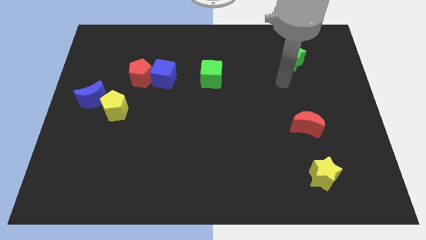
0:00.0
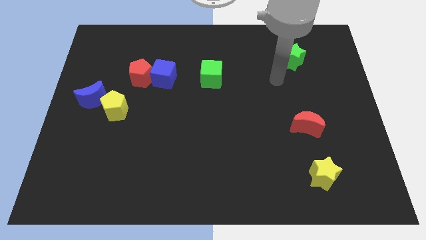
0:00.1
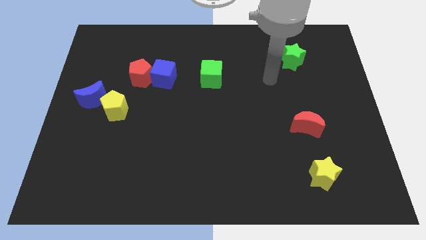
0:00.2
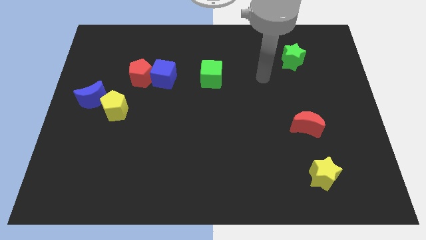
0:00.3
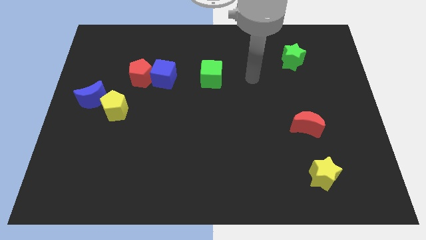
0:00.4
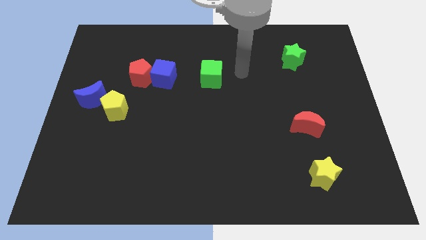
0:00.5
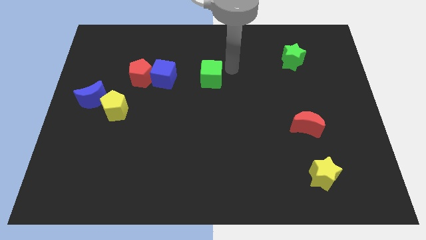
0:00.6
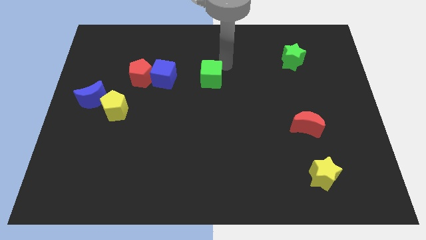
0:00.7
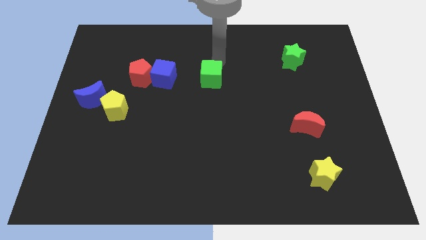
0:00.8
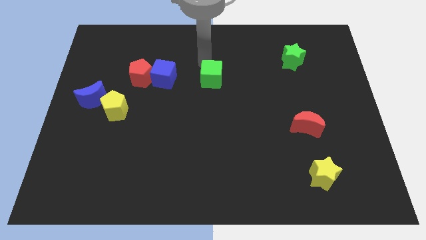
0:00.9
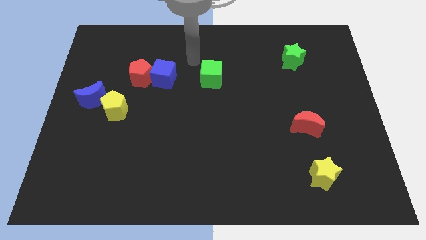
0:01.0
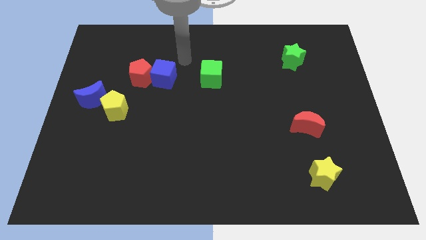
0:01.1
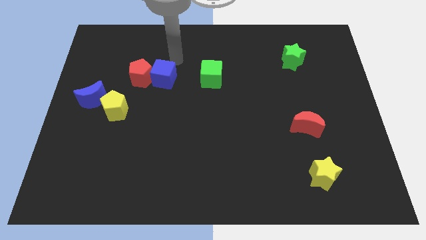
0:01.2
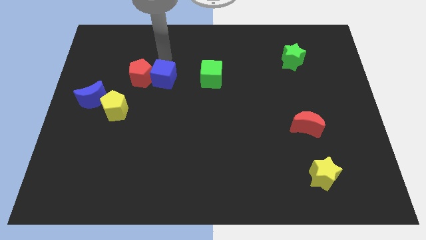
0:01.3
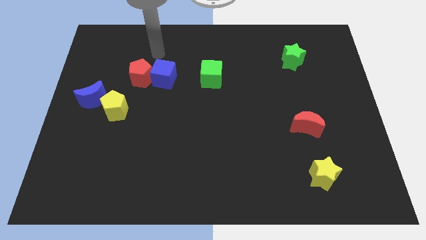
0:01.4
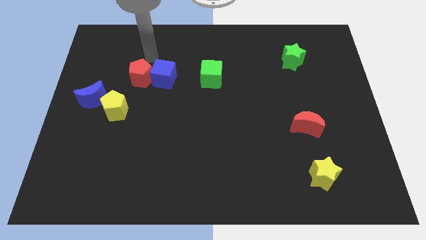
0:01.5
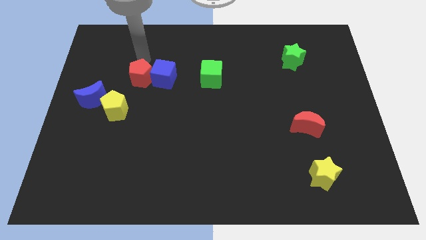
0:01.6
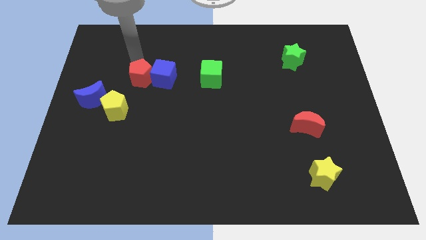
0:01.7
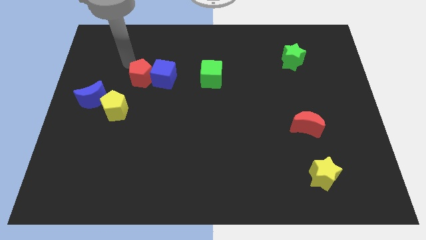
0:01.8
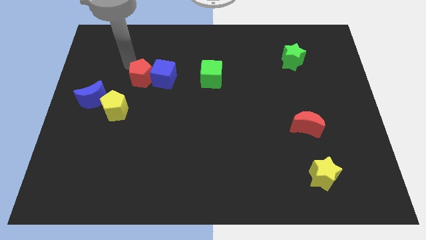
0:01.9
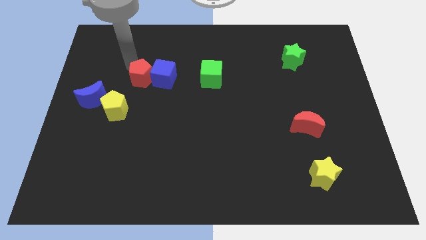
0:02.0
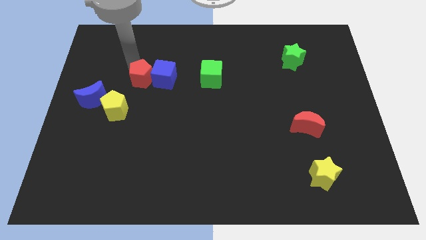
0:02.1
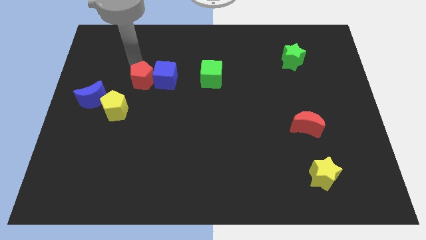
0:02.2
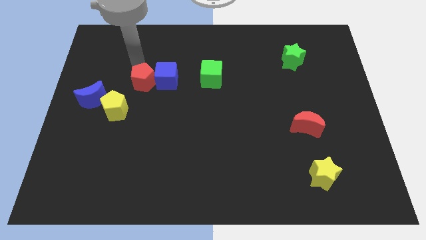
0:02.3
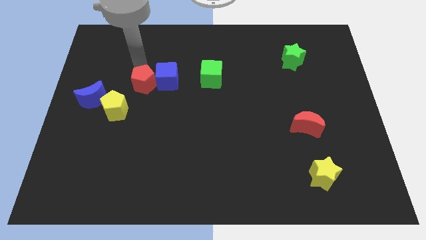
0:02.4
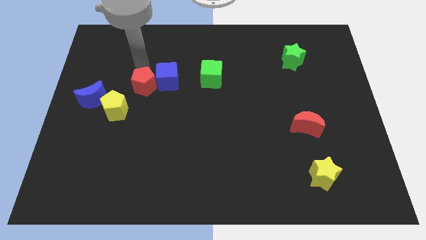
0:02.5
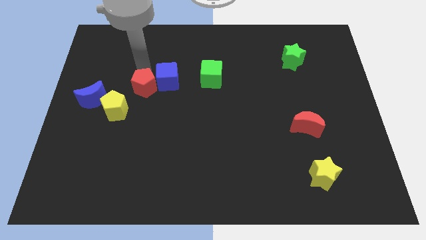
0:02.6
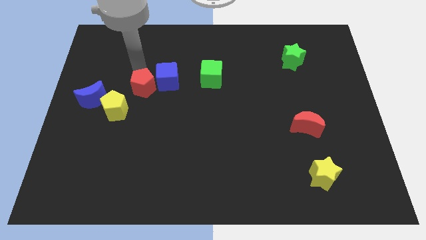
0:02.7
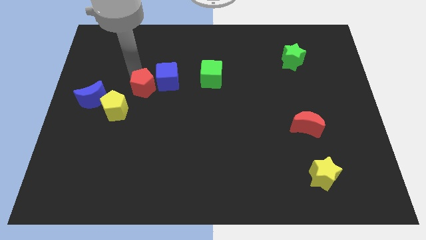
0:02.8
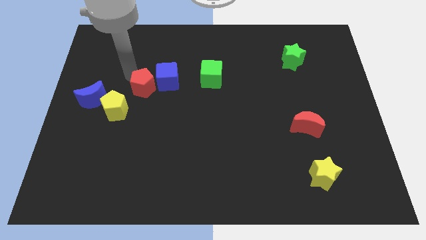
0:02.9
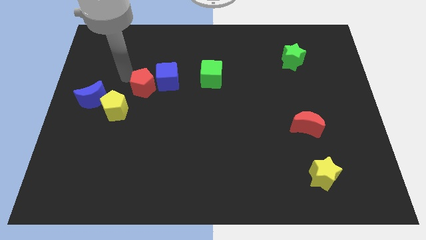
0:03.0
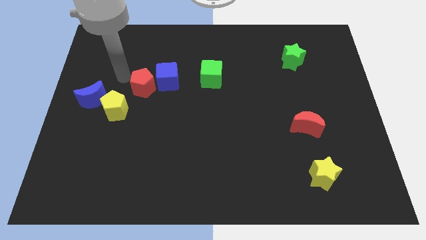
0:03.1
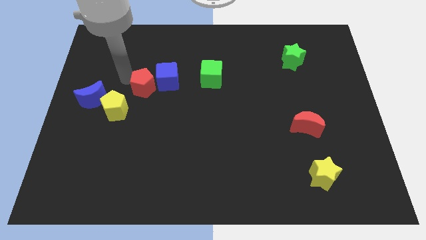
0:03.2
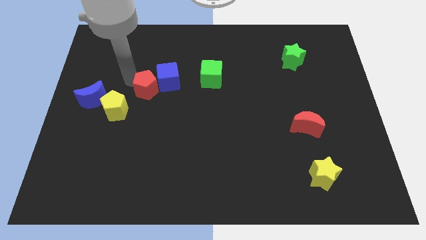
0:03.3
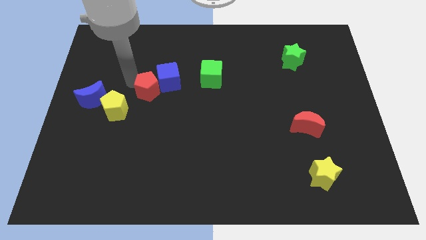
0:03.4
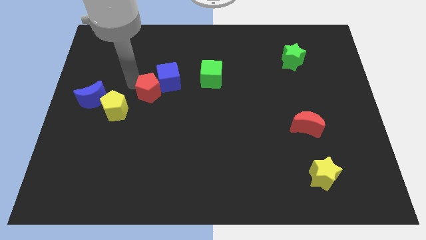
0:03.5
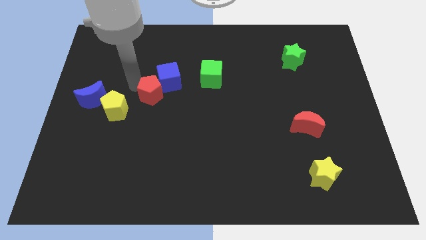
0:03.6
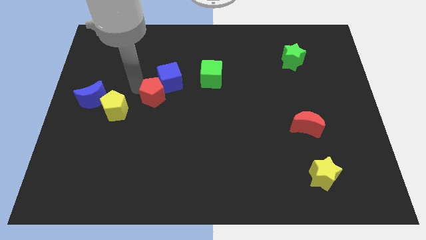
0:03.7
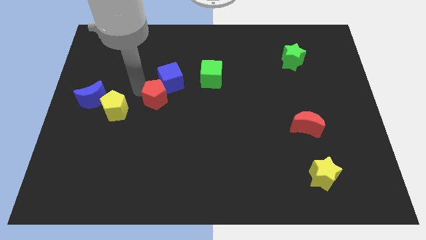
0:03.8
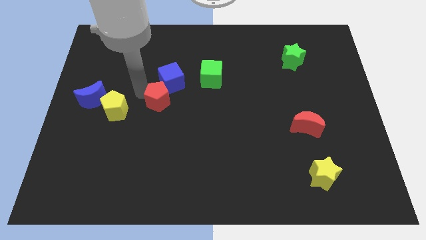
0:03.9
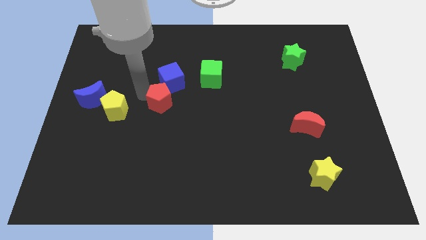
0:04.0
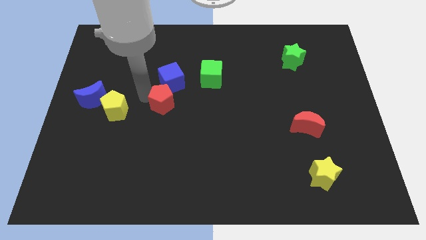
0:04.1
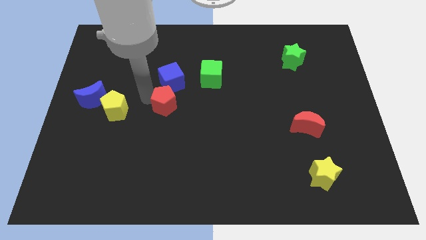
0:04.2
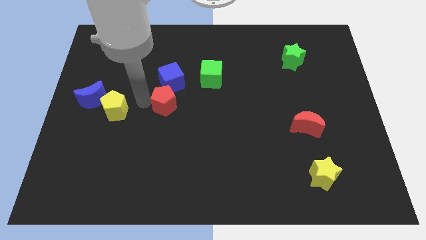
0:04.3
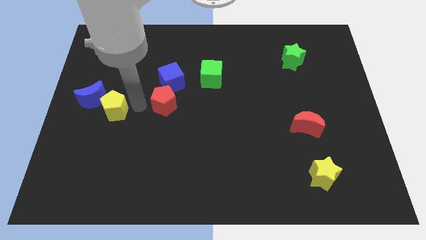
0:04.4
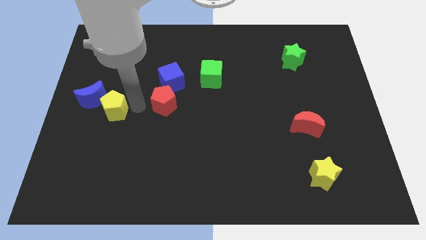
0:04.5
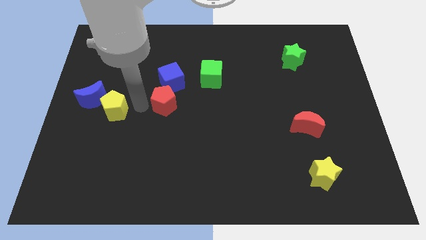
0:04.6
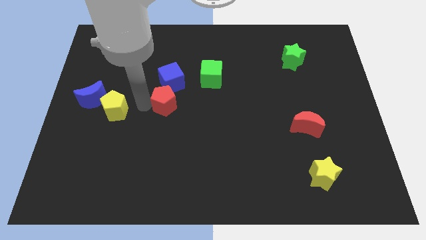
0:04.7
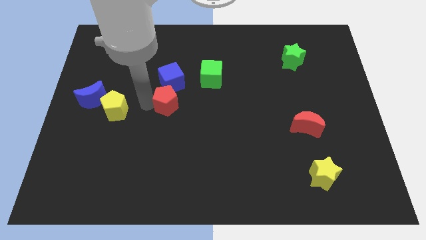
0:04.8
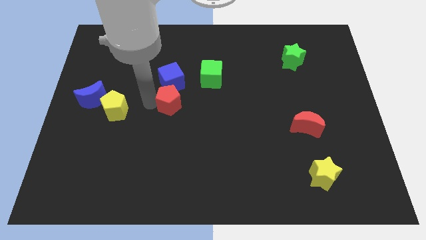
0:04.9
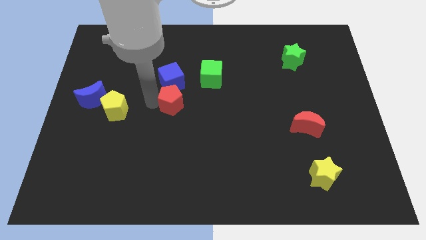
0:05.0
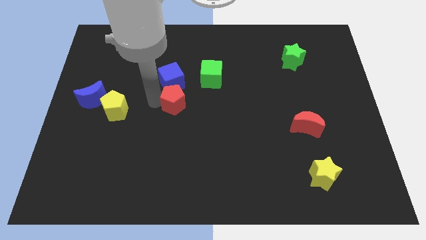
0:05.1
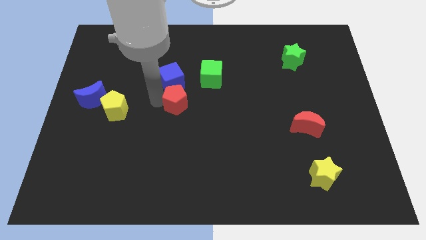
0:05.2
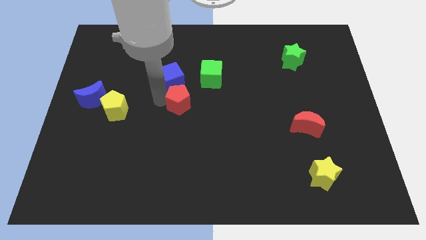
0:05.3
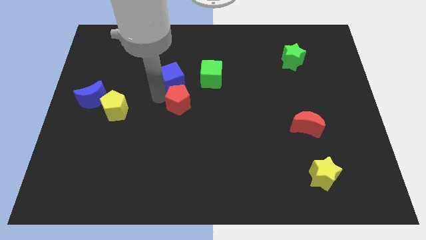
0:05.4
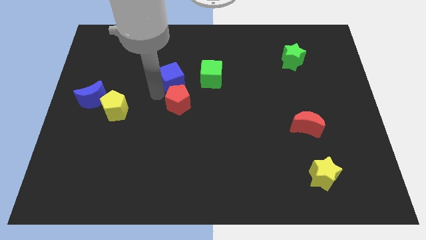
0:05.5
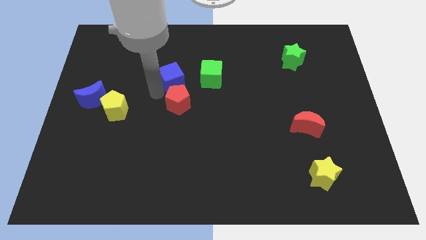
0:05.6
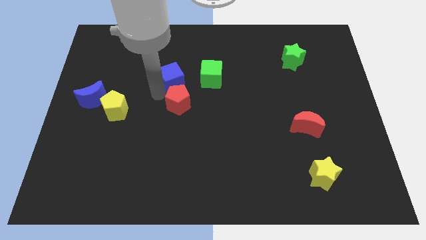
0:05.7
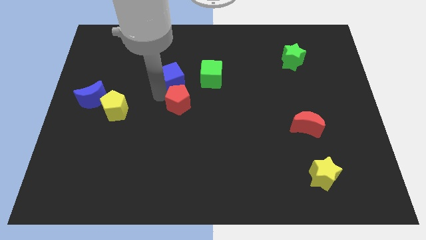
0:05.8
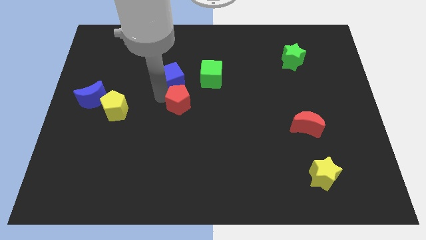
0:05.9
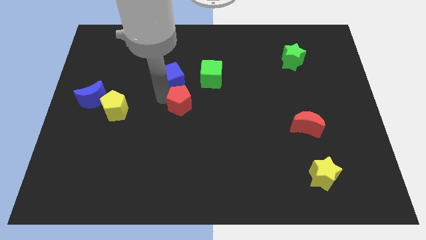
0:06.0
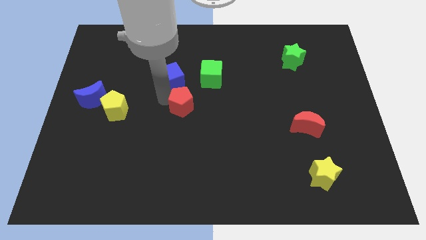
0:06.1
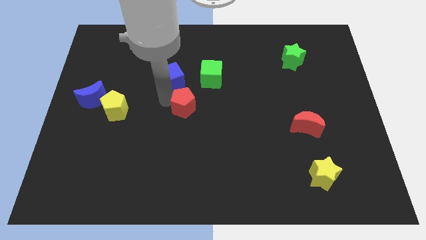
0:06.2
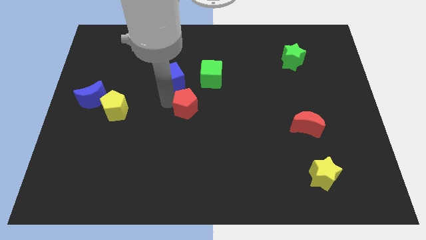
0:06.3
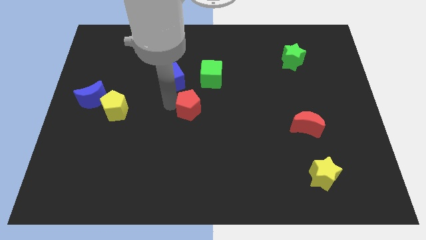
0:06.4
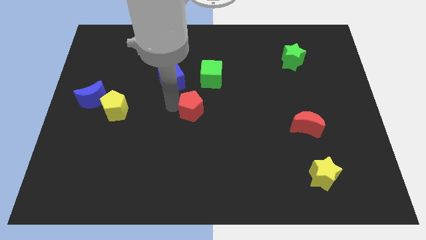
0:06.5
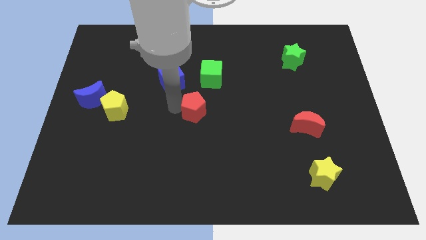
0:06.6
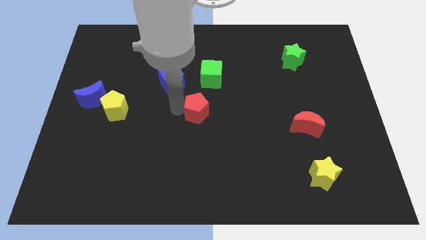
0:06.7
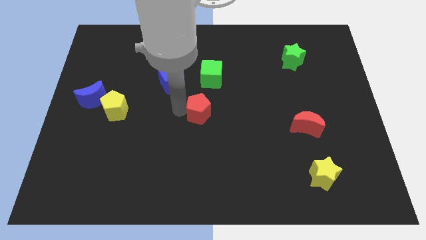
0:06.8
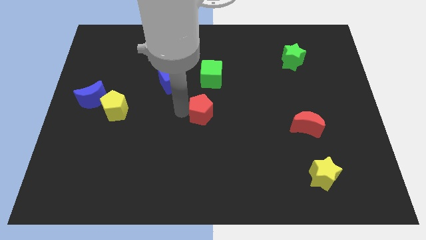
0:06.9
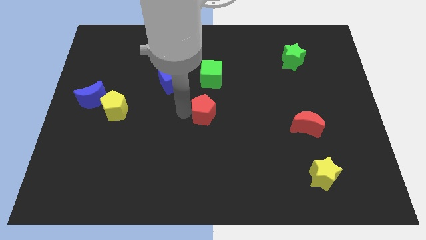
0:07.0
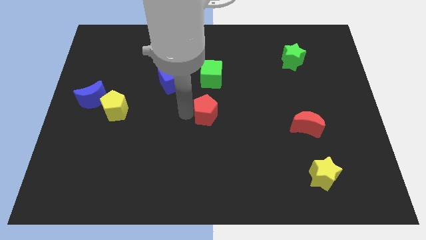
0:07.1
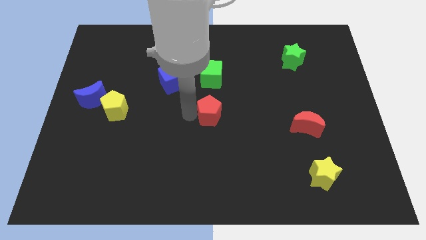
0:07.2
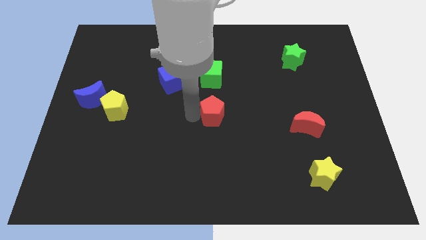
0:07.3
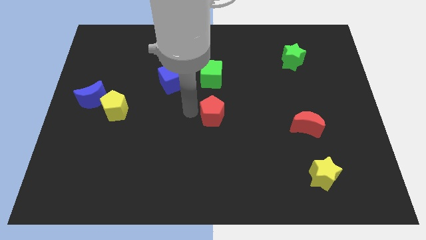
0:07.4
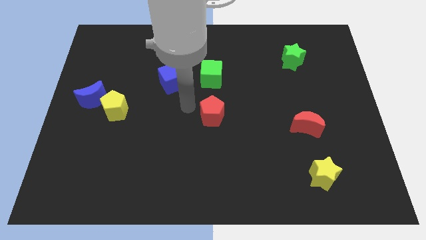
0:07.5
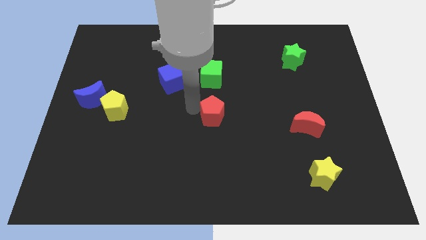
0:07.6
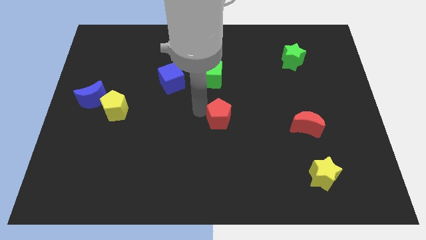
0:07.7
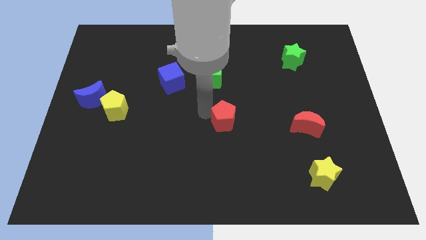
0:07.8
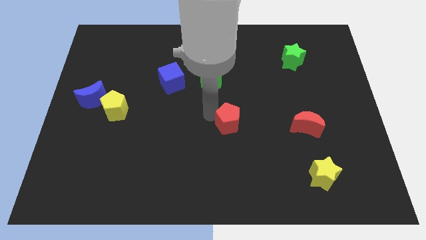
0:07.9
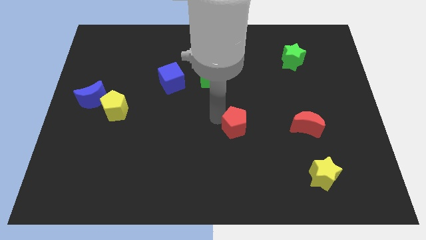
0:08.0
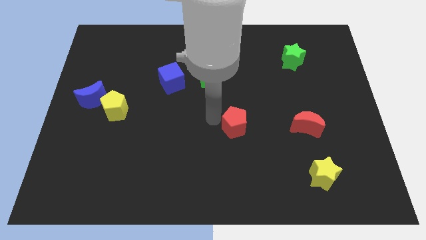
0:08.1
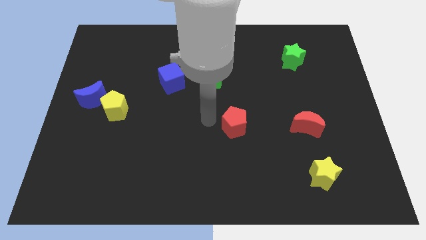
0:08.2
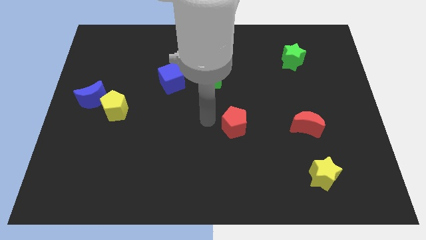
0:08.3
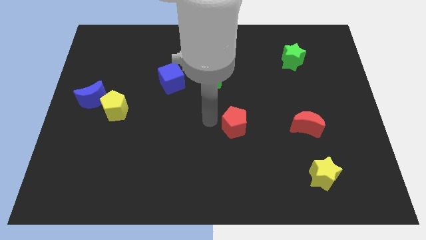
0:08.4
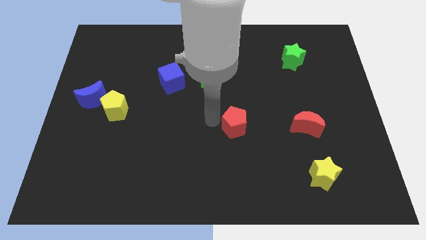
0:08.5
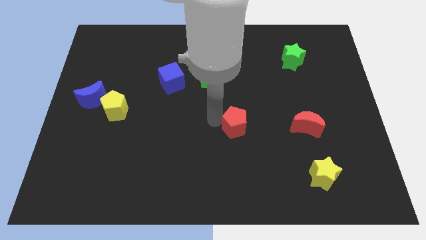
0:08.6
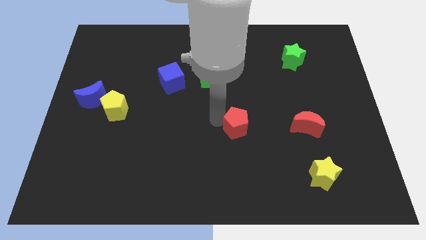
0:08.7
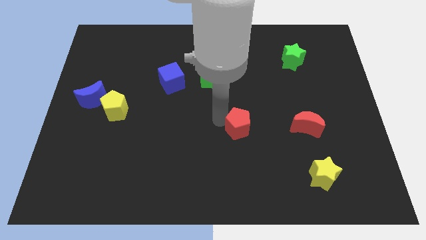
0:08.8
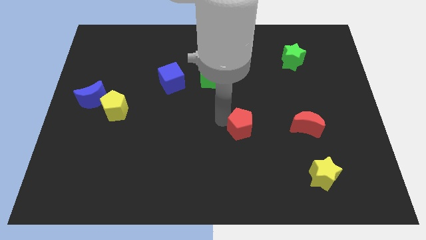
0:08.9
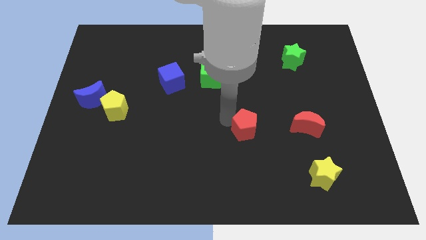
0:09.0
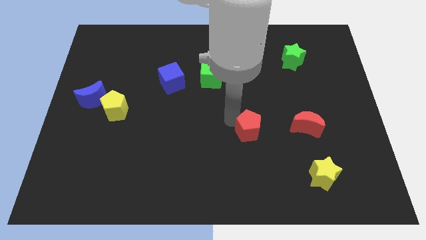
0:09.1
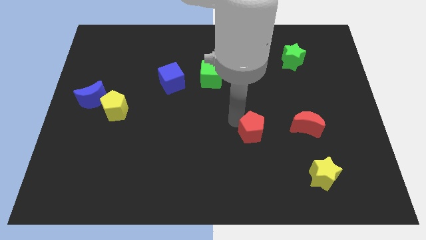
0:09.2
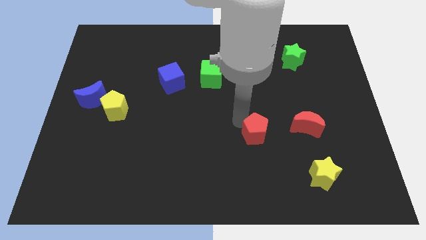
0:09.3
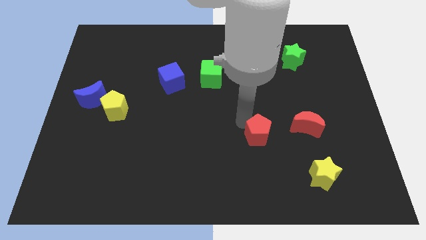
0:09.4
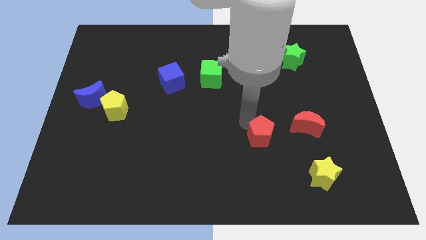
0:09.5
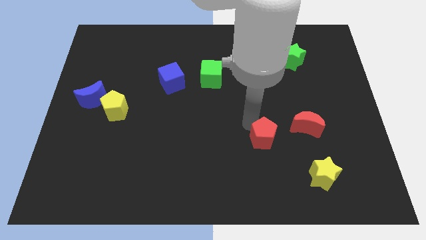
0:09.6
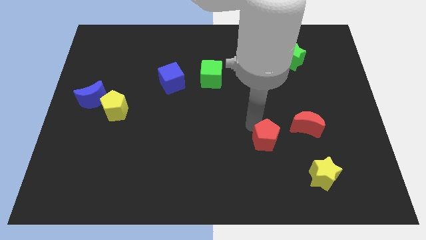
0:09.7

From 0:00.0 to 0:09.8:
push the red pentagon to the bottom left side of the red moon
